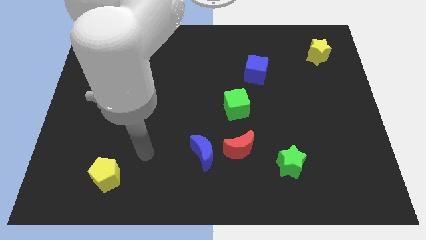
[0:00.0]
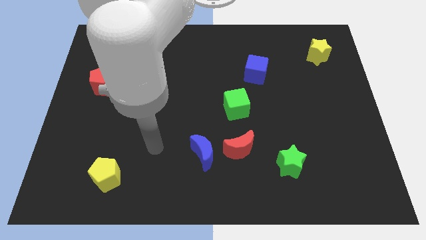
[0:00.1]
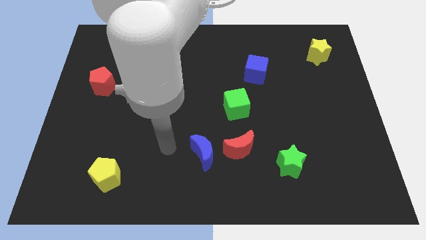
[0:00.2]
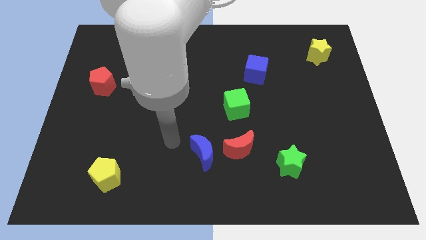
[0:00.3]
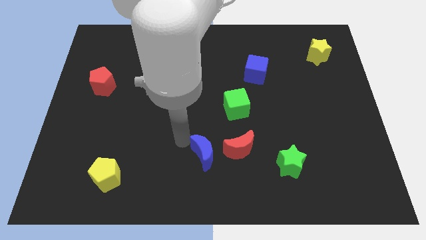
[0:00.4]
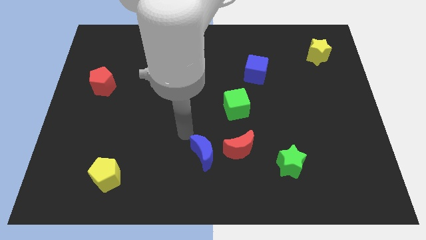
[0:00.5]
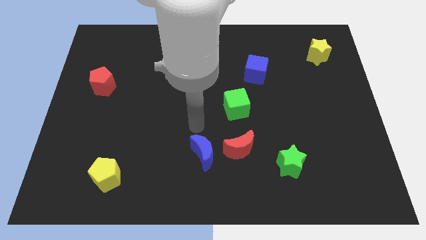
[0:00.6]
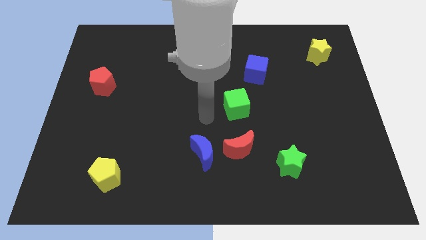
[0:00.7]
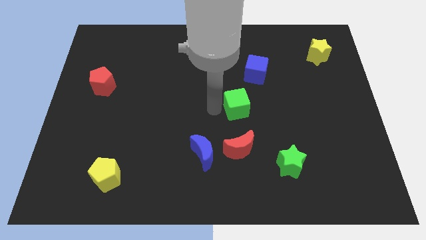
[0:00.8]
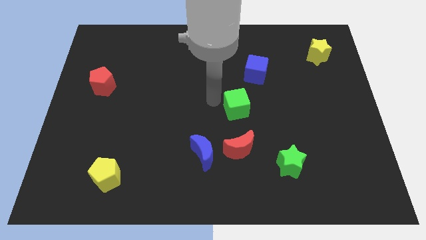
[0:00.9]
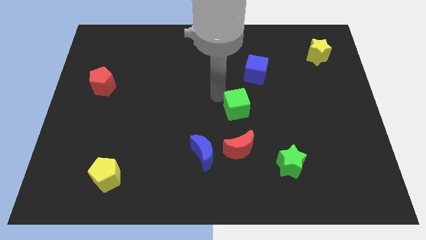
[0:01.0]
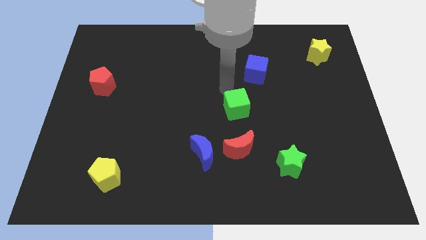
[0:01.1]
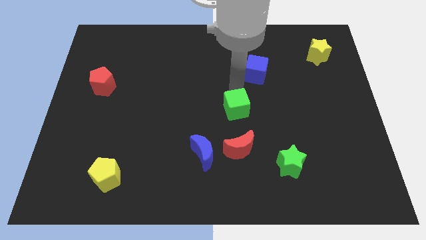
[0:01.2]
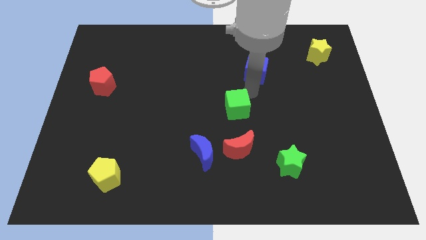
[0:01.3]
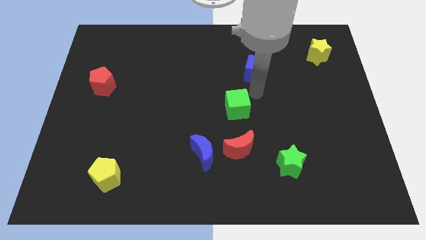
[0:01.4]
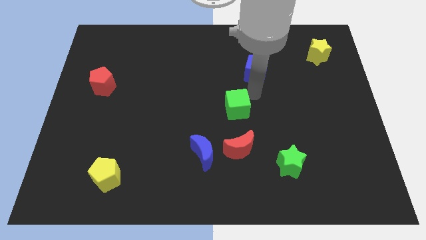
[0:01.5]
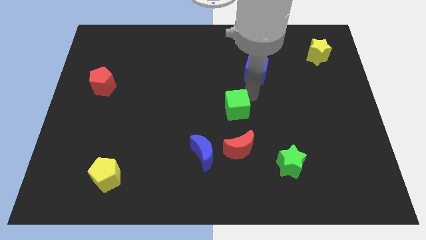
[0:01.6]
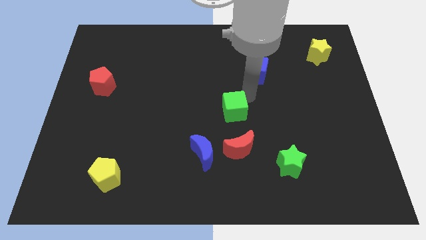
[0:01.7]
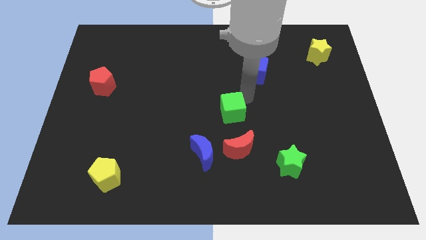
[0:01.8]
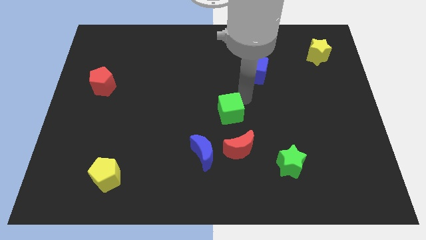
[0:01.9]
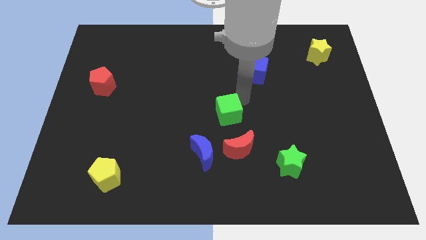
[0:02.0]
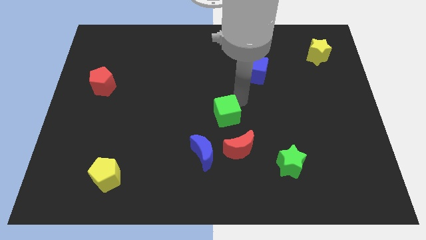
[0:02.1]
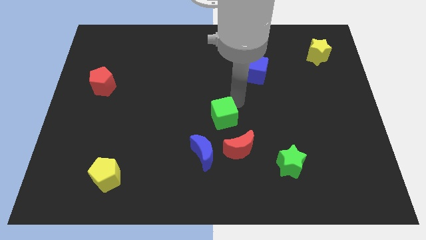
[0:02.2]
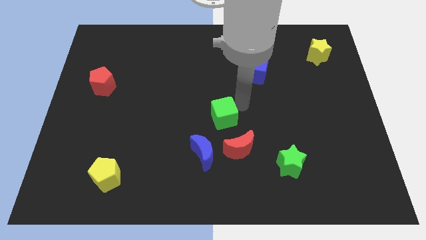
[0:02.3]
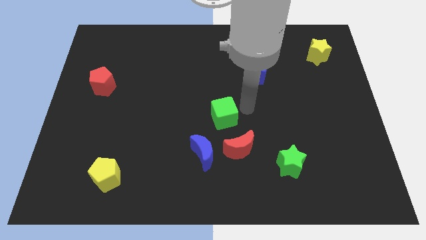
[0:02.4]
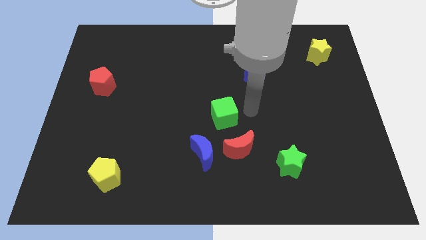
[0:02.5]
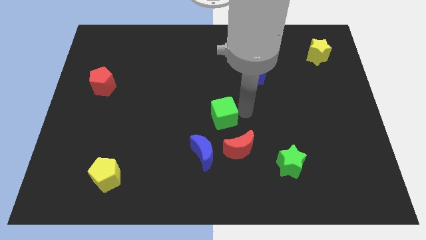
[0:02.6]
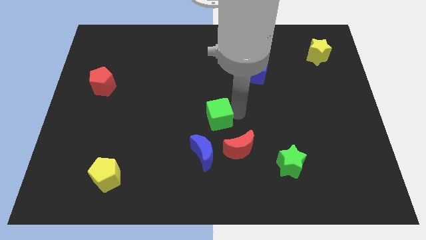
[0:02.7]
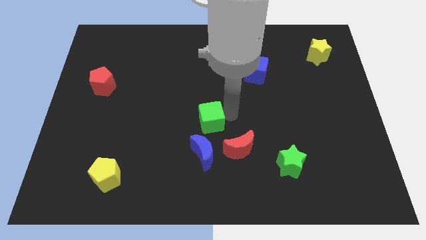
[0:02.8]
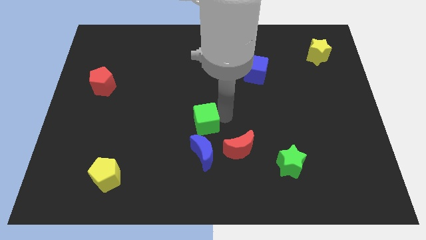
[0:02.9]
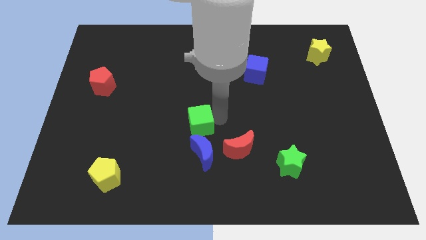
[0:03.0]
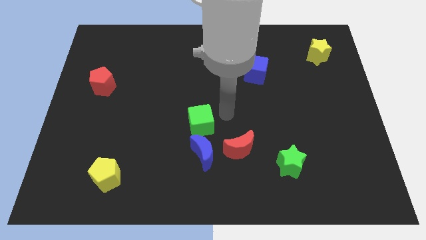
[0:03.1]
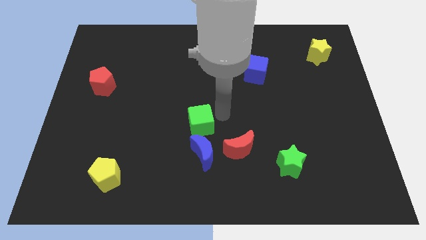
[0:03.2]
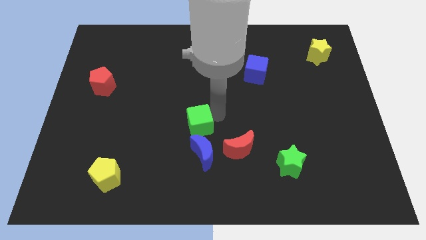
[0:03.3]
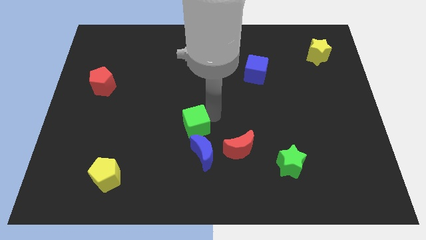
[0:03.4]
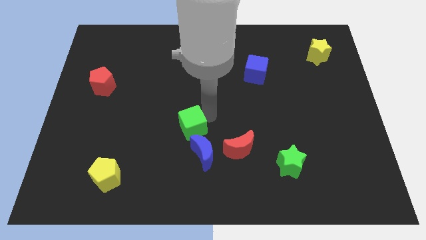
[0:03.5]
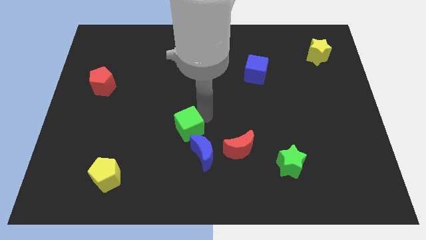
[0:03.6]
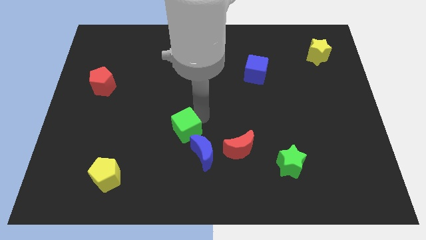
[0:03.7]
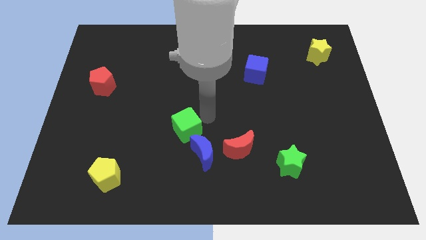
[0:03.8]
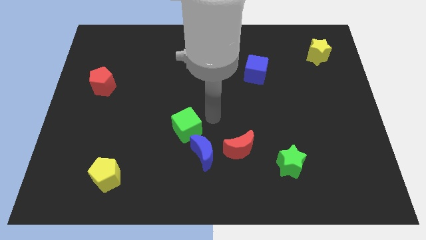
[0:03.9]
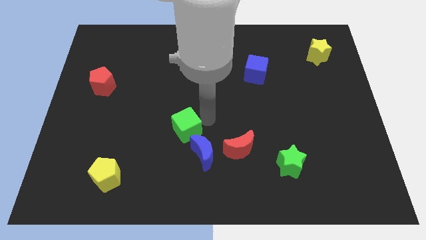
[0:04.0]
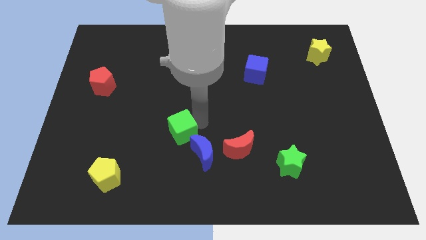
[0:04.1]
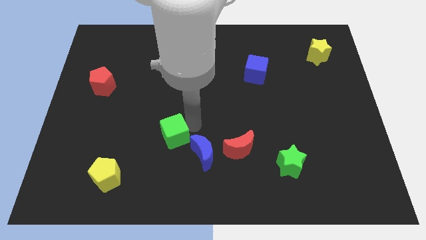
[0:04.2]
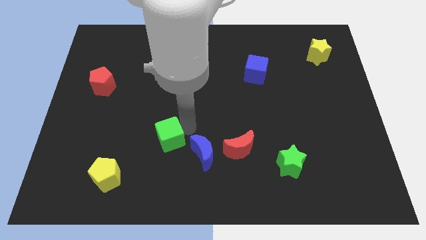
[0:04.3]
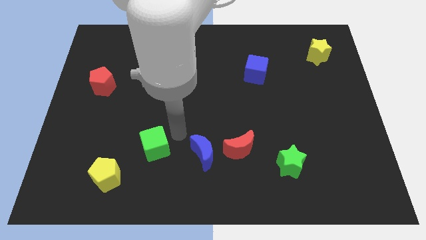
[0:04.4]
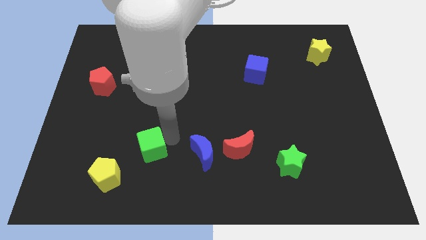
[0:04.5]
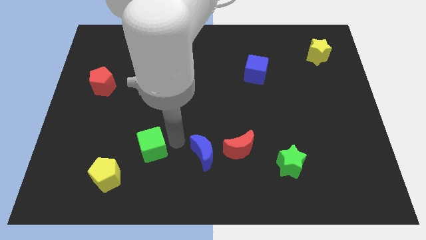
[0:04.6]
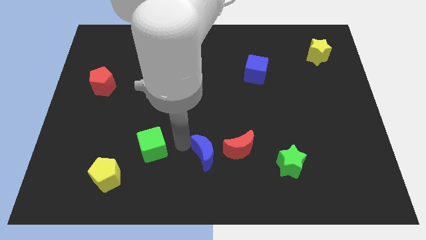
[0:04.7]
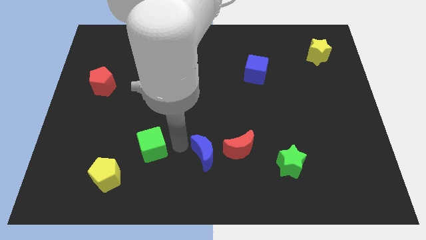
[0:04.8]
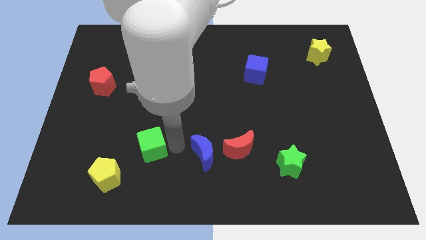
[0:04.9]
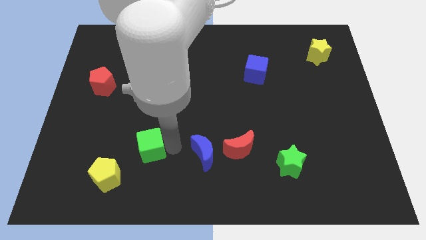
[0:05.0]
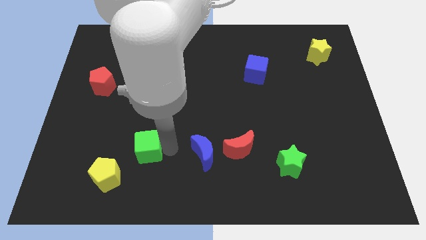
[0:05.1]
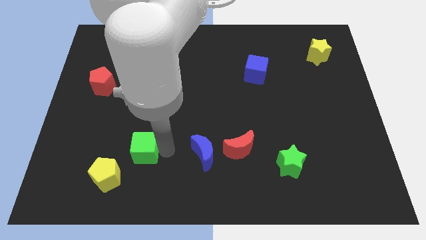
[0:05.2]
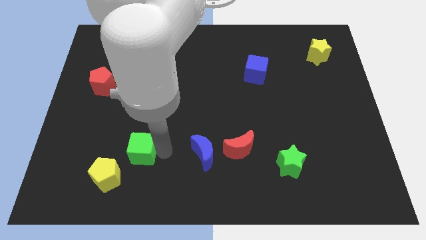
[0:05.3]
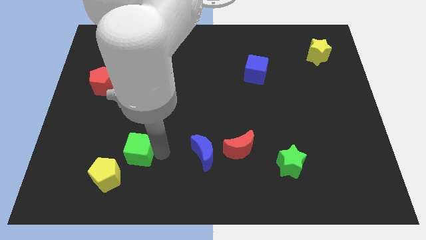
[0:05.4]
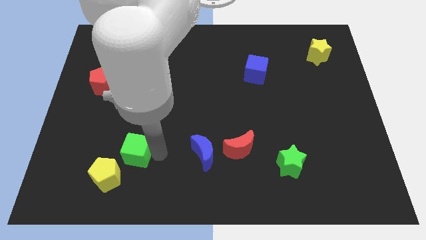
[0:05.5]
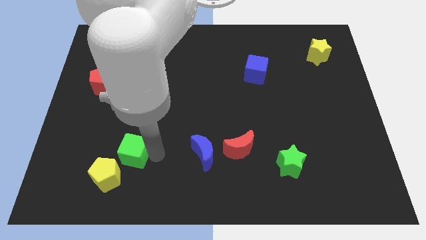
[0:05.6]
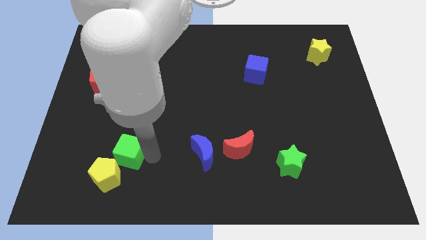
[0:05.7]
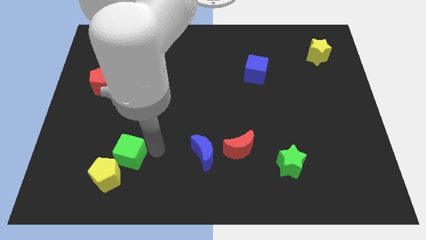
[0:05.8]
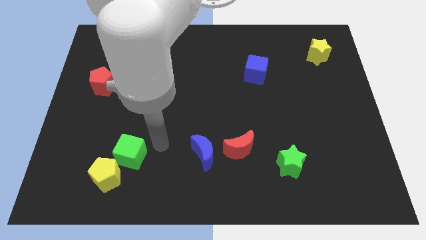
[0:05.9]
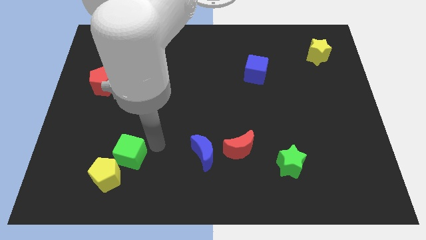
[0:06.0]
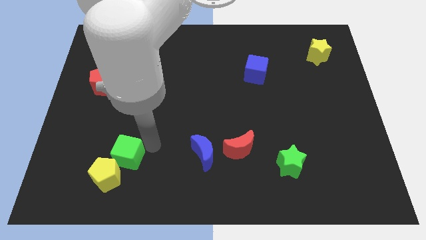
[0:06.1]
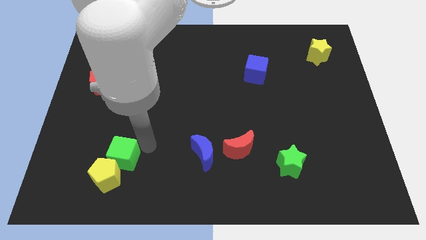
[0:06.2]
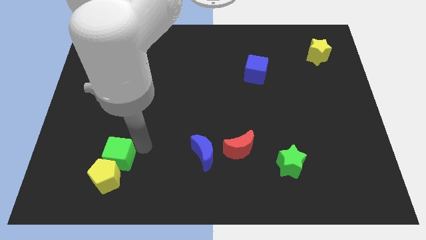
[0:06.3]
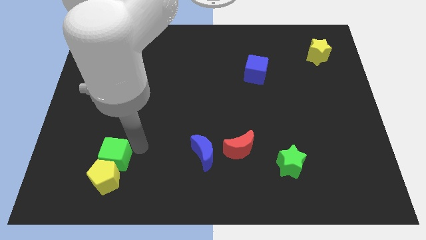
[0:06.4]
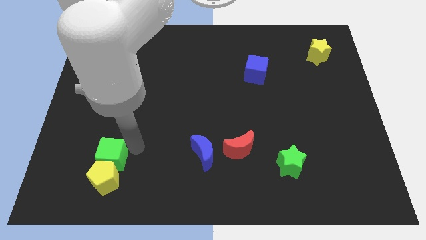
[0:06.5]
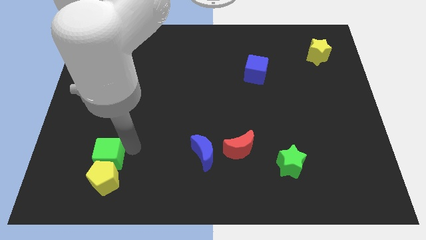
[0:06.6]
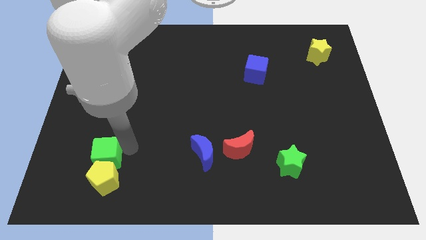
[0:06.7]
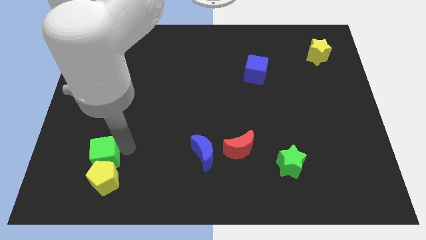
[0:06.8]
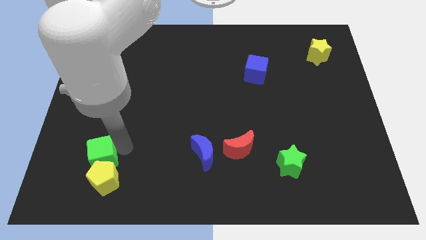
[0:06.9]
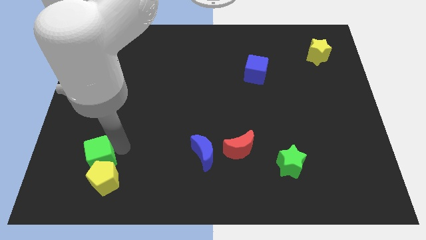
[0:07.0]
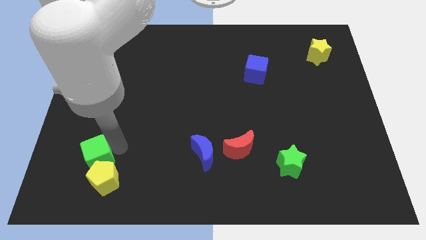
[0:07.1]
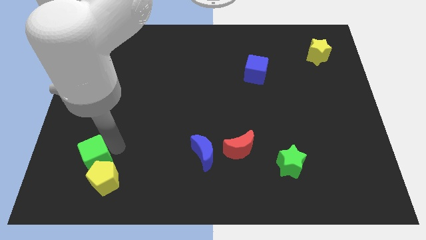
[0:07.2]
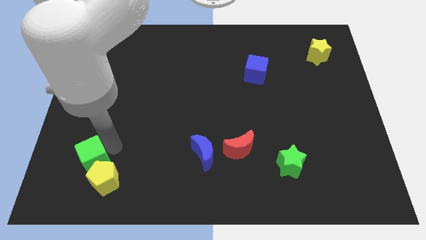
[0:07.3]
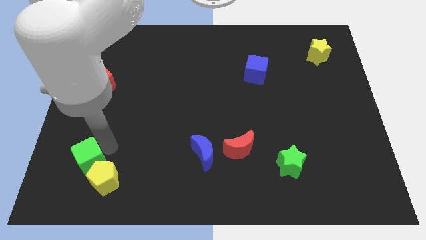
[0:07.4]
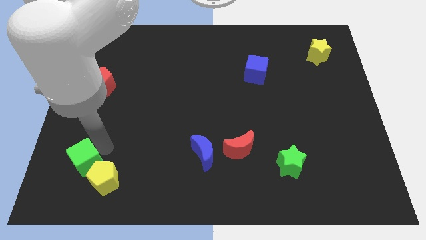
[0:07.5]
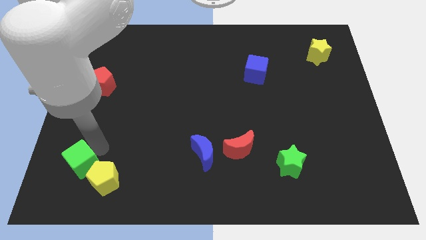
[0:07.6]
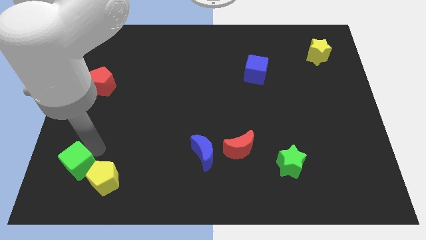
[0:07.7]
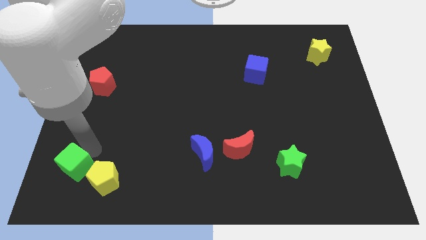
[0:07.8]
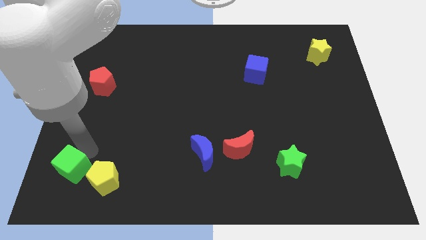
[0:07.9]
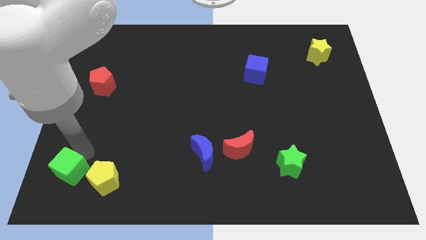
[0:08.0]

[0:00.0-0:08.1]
put the green cube to the bottom left
